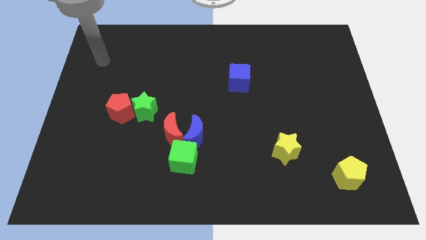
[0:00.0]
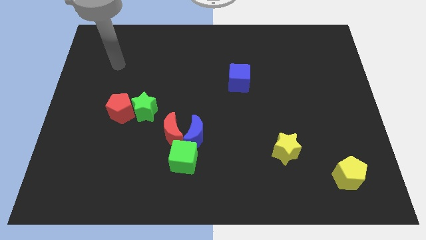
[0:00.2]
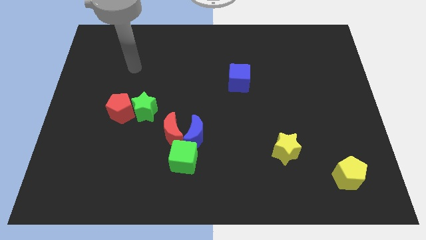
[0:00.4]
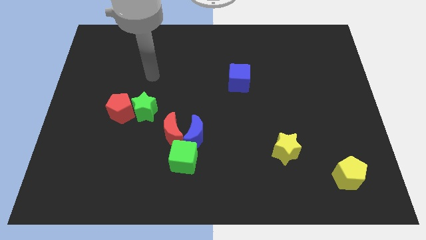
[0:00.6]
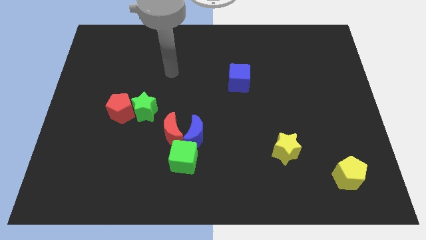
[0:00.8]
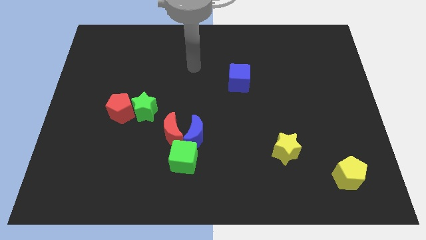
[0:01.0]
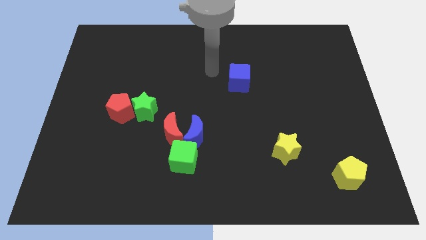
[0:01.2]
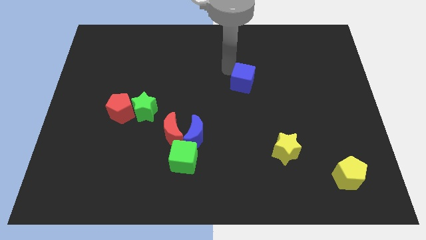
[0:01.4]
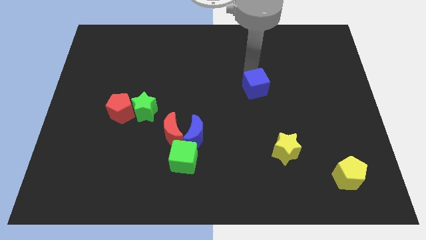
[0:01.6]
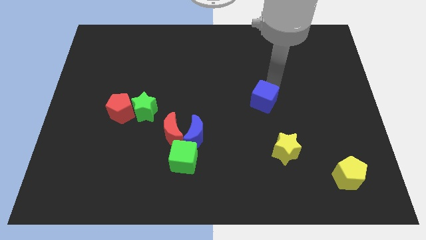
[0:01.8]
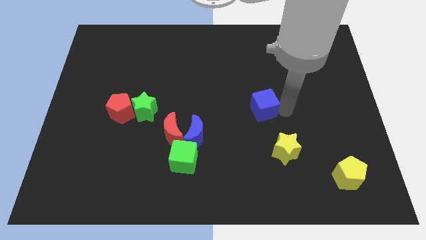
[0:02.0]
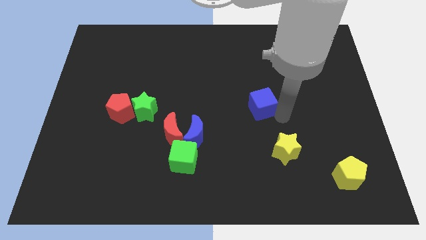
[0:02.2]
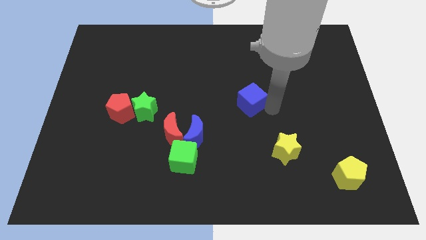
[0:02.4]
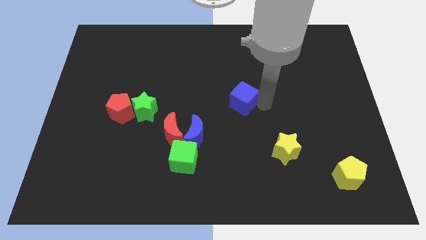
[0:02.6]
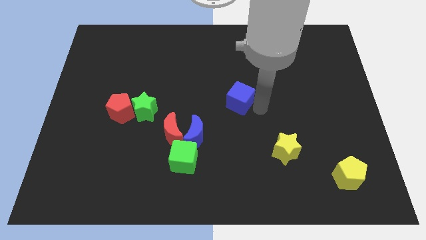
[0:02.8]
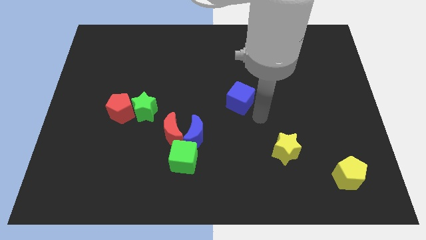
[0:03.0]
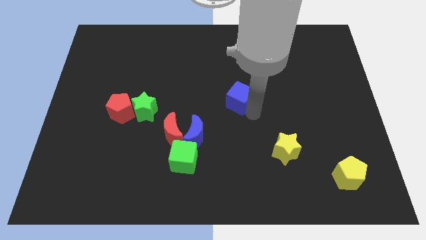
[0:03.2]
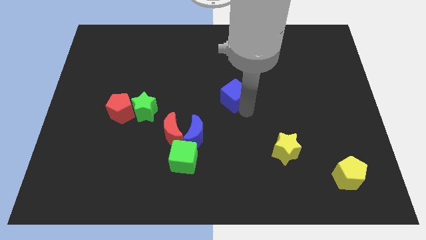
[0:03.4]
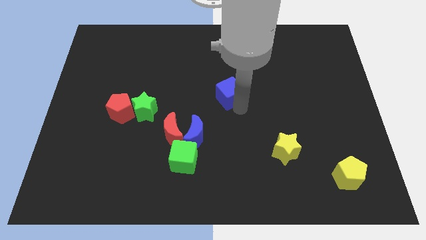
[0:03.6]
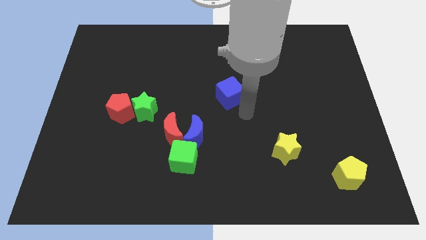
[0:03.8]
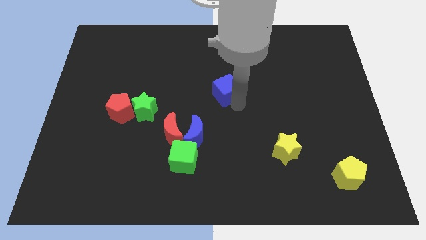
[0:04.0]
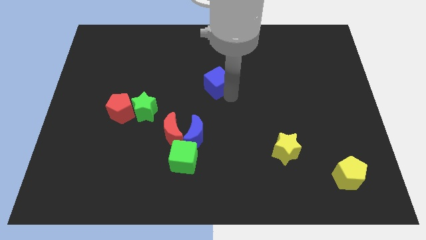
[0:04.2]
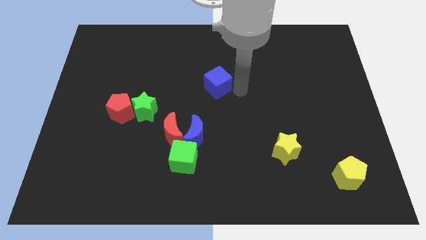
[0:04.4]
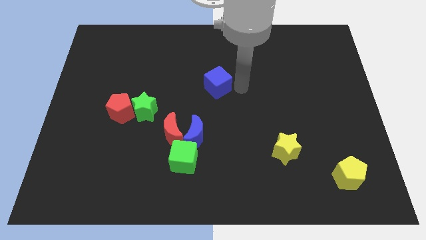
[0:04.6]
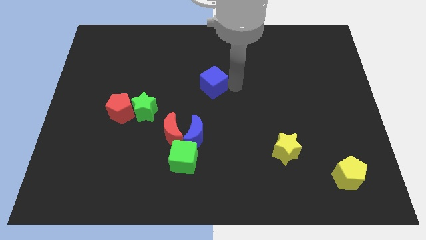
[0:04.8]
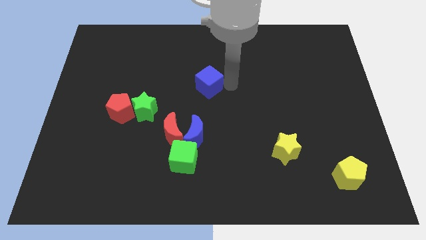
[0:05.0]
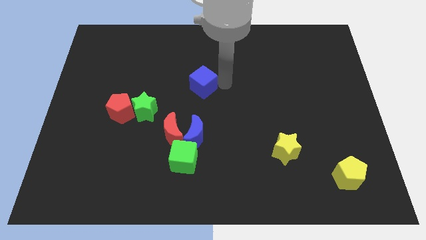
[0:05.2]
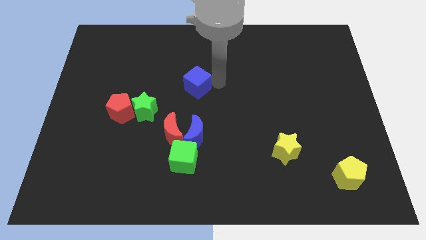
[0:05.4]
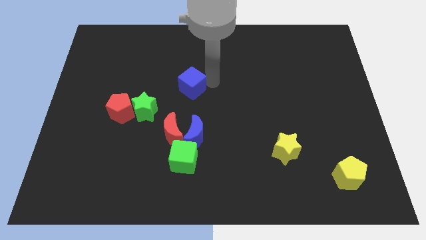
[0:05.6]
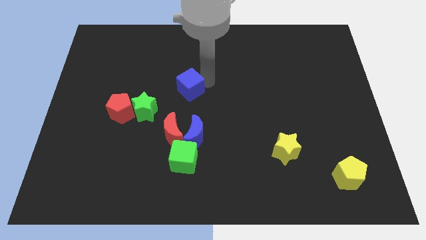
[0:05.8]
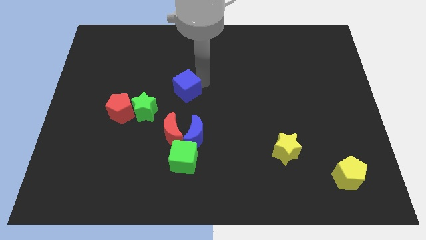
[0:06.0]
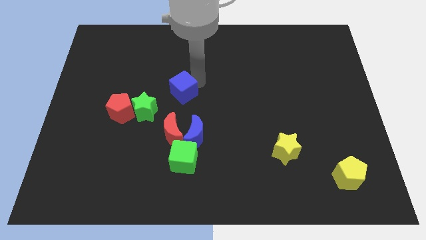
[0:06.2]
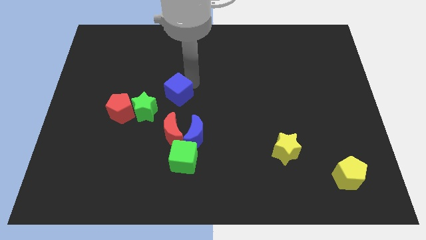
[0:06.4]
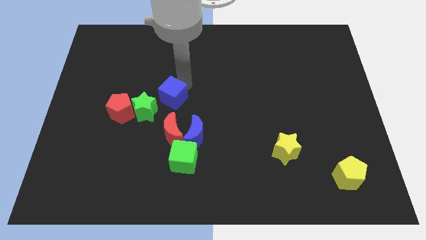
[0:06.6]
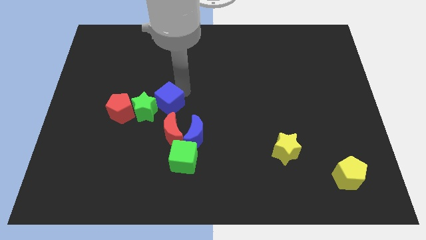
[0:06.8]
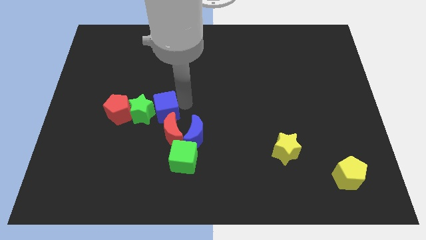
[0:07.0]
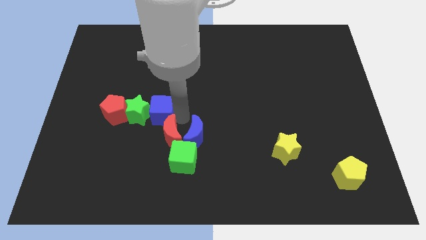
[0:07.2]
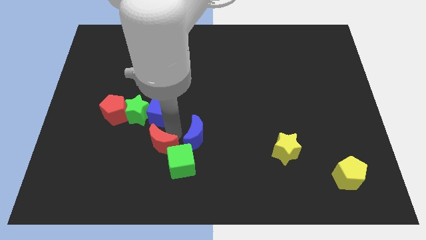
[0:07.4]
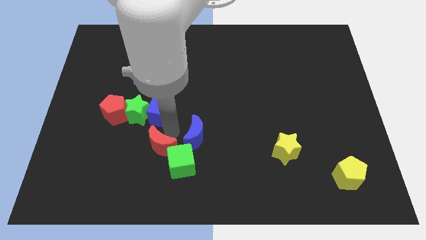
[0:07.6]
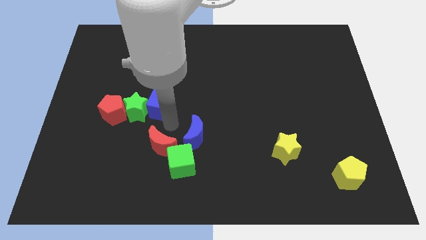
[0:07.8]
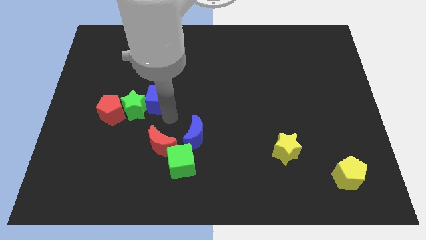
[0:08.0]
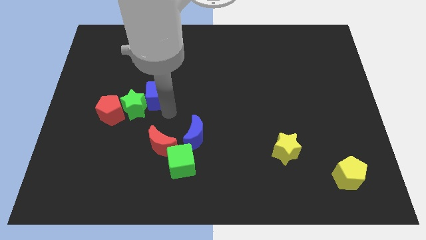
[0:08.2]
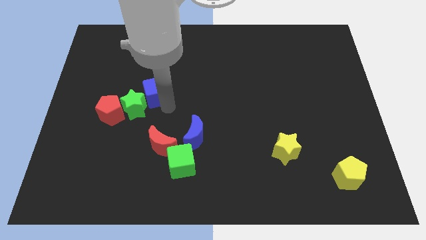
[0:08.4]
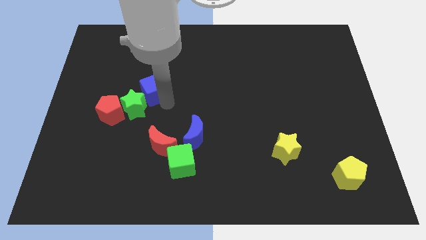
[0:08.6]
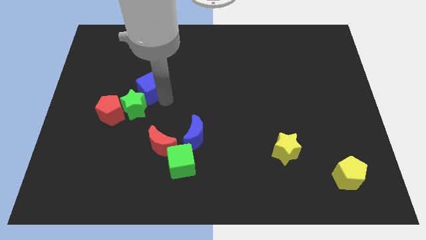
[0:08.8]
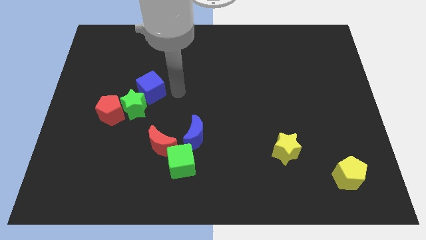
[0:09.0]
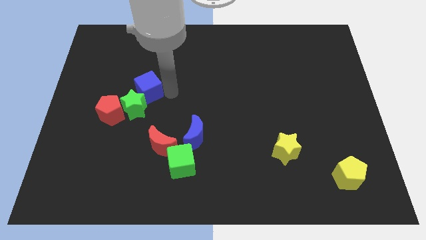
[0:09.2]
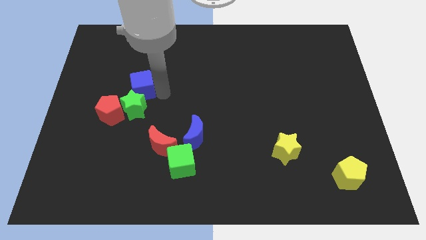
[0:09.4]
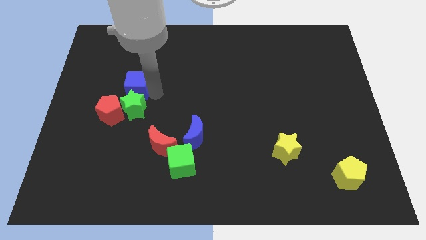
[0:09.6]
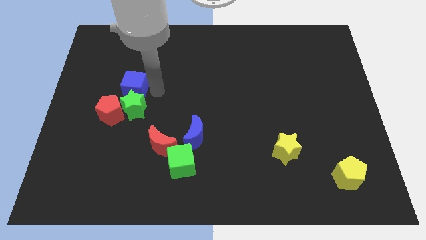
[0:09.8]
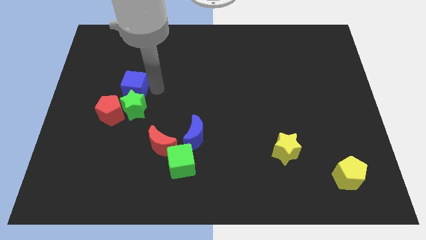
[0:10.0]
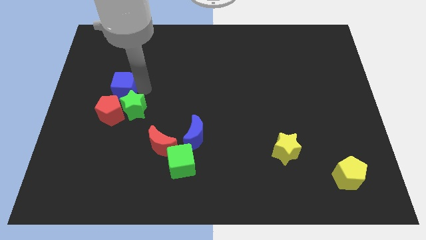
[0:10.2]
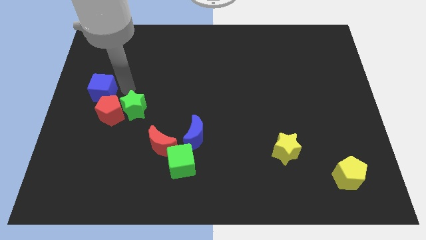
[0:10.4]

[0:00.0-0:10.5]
move the blue cube to the left side of the board
